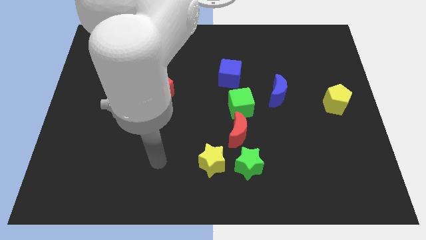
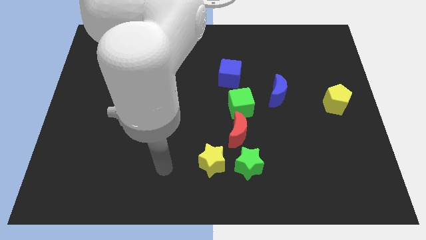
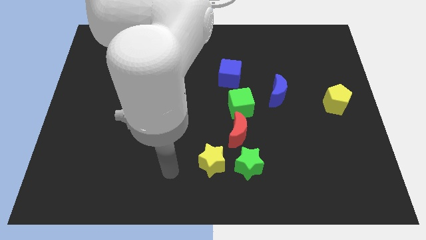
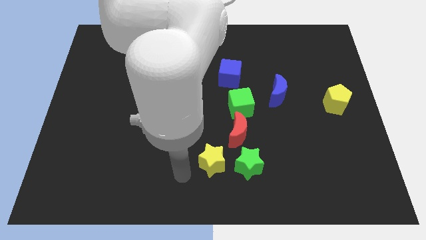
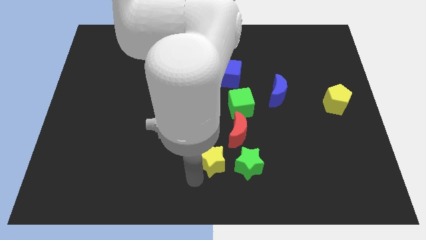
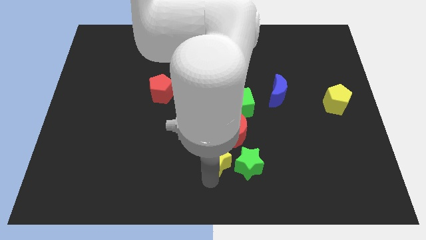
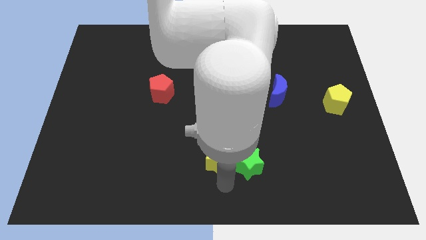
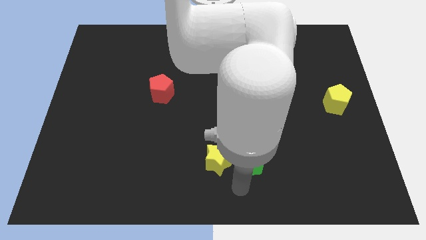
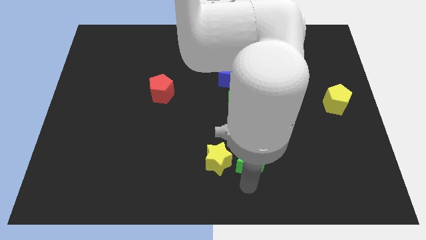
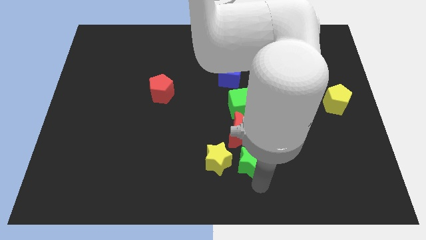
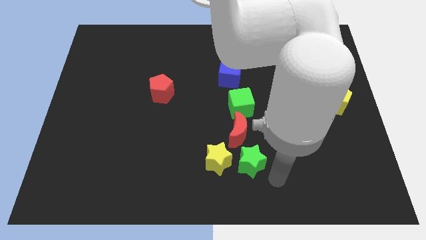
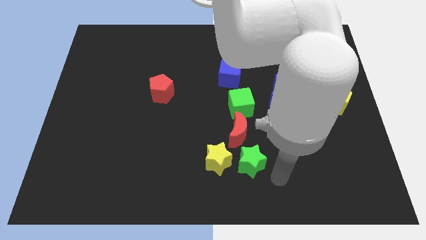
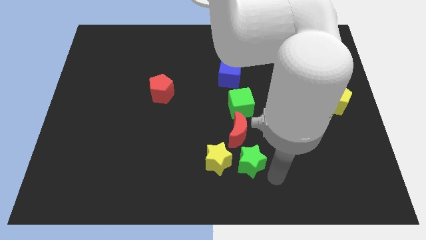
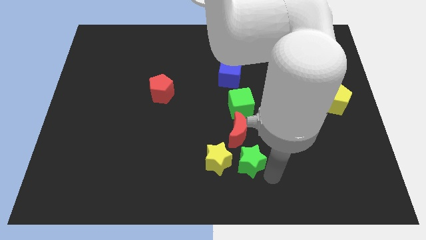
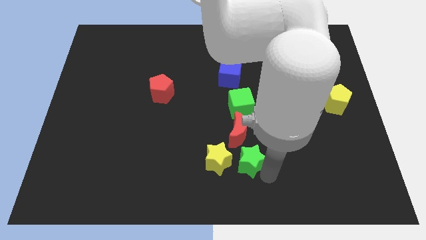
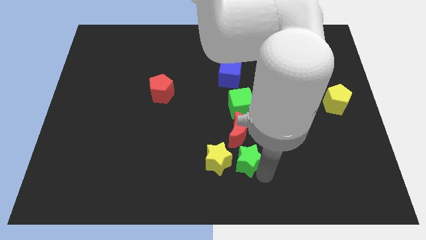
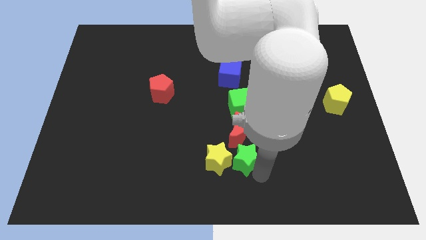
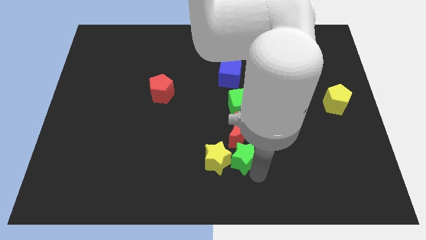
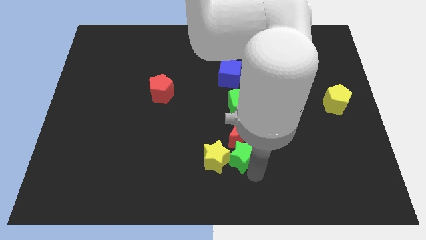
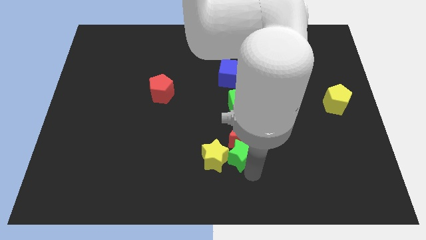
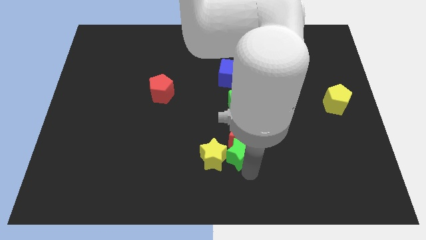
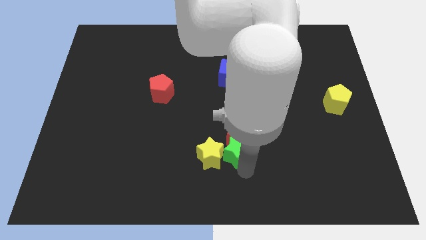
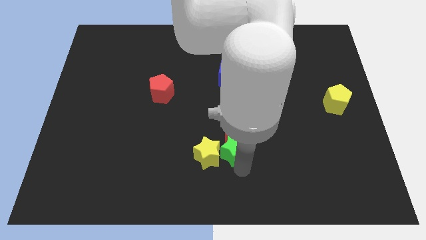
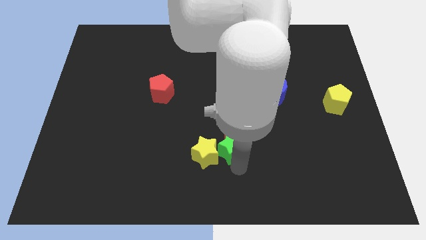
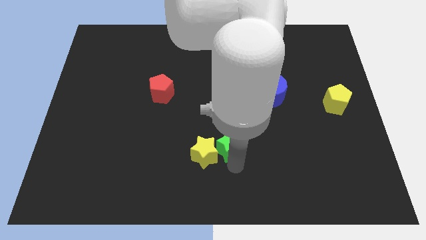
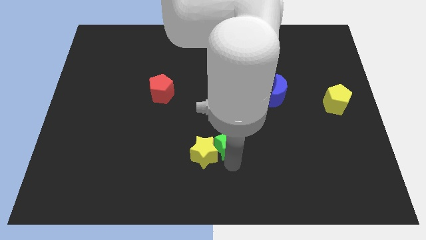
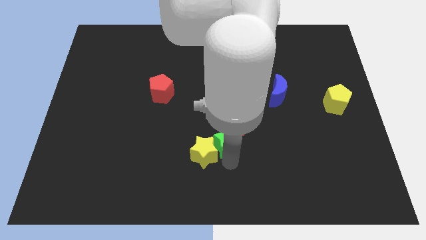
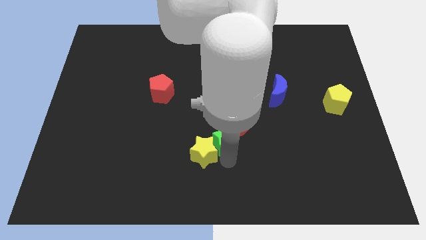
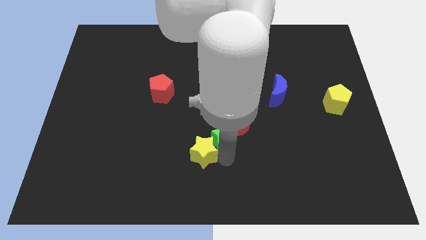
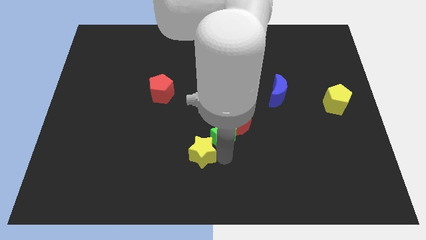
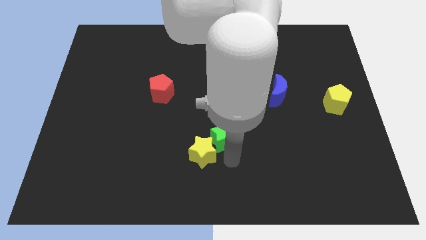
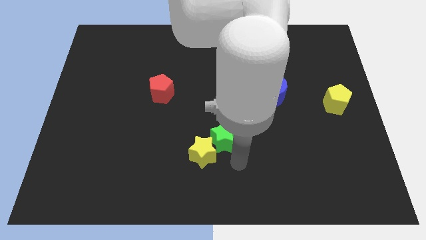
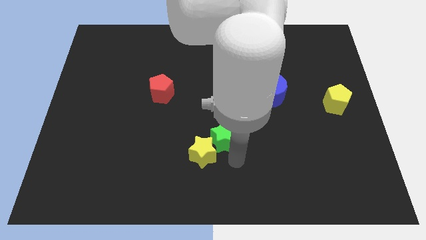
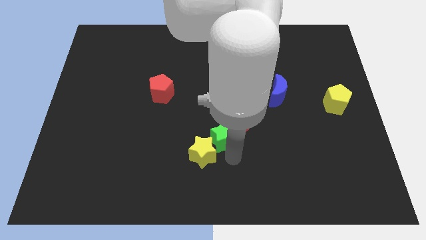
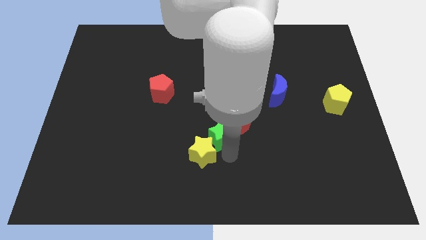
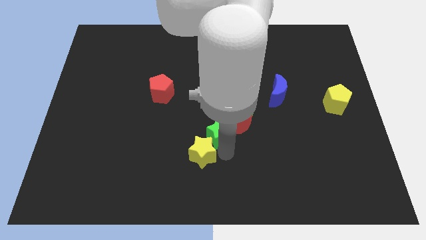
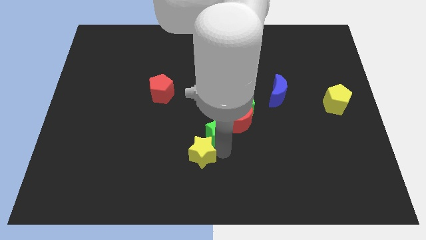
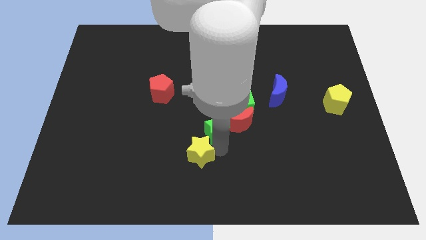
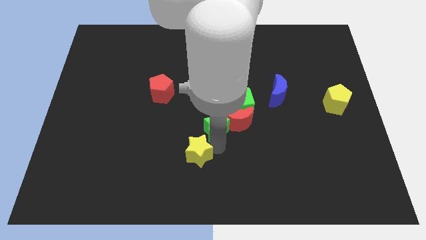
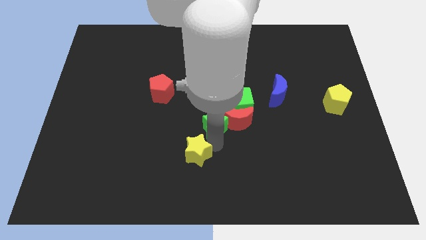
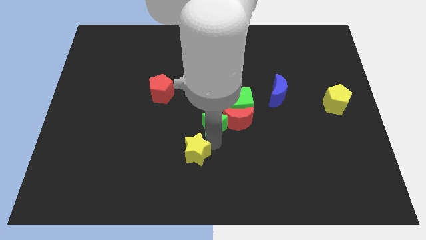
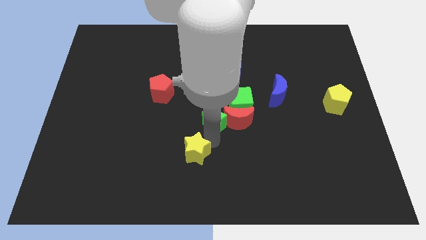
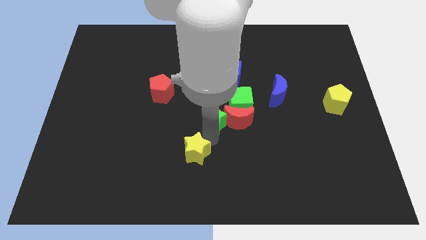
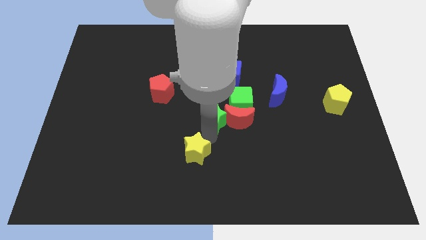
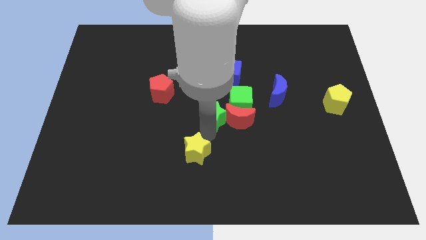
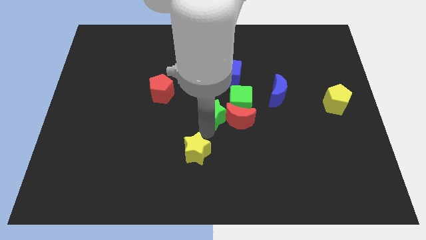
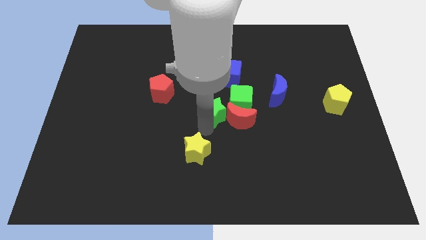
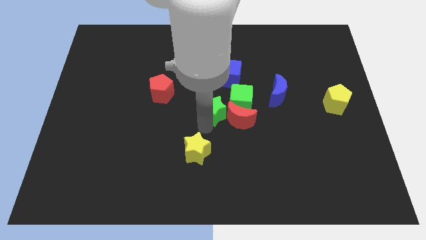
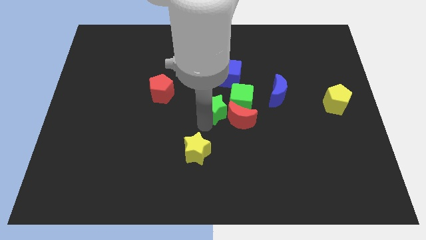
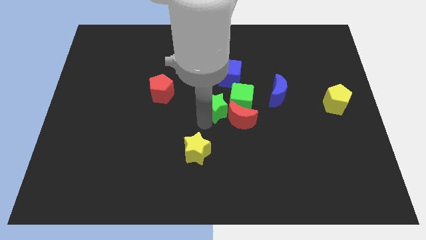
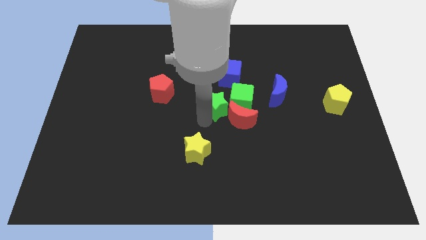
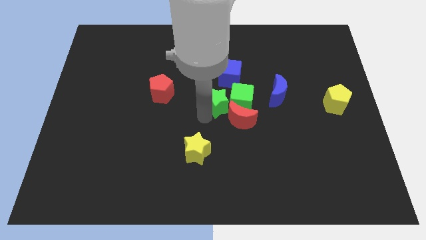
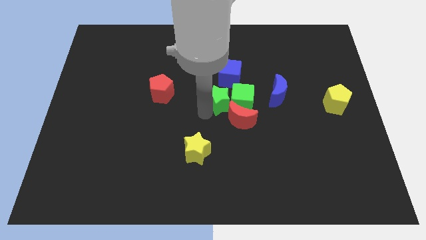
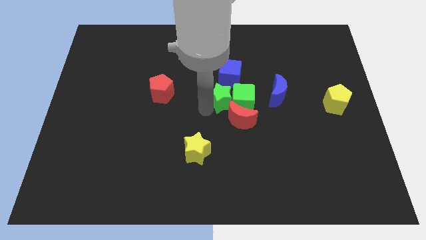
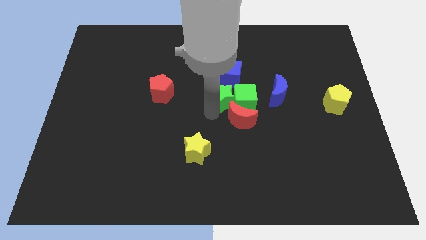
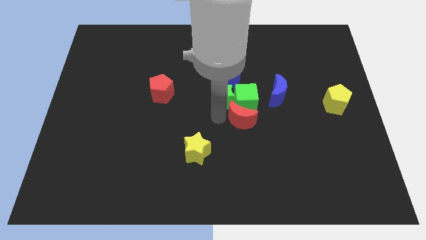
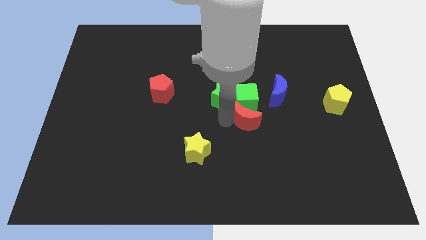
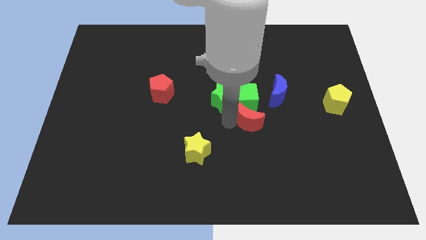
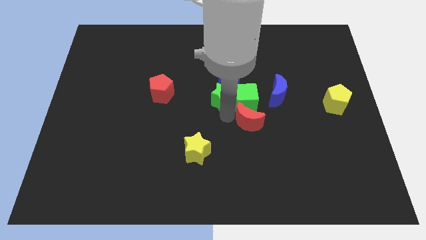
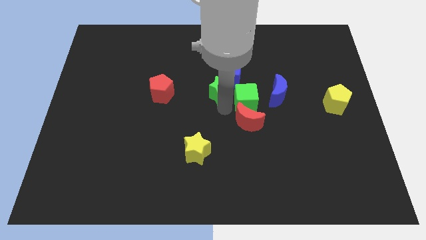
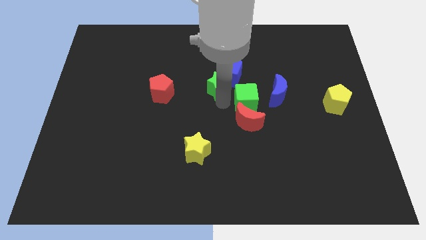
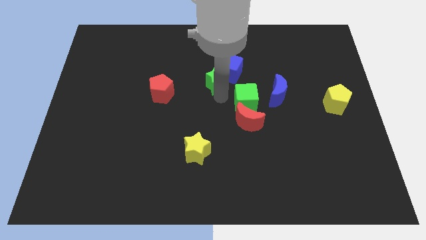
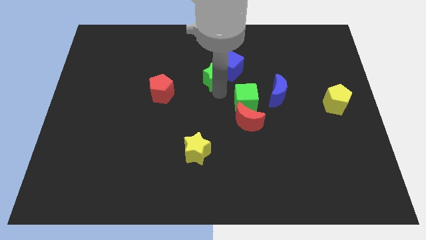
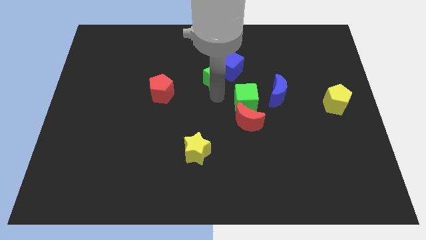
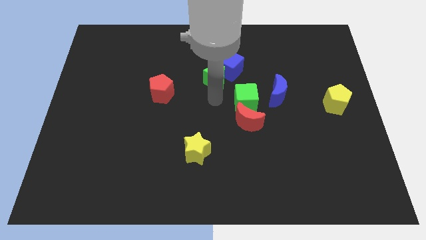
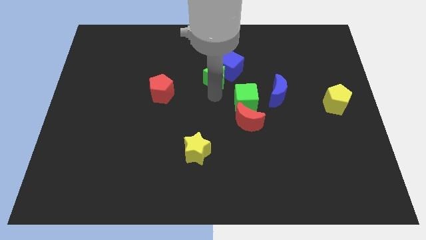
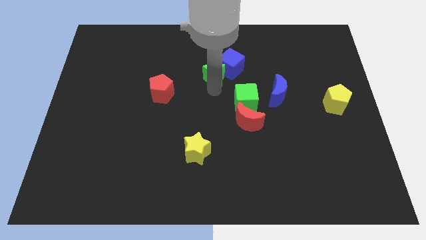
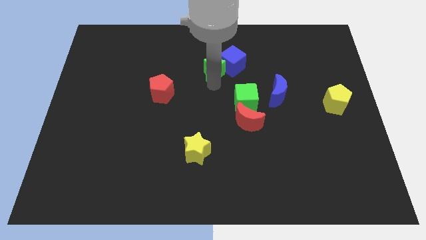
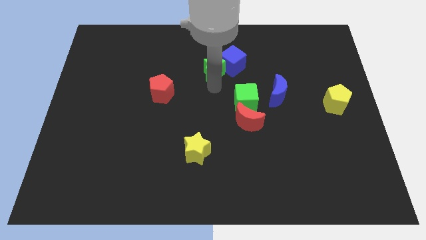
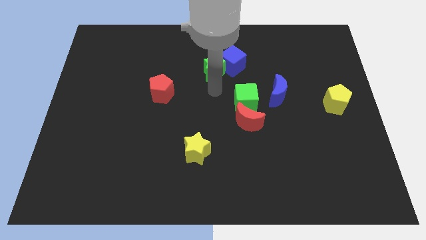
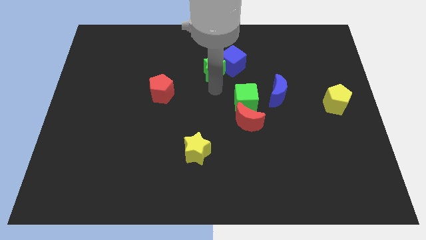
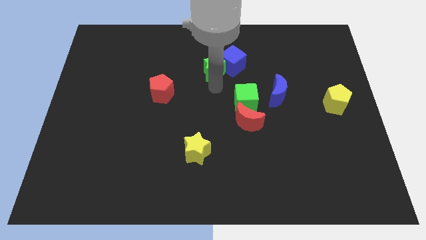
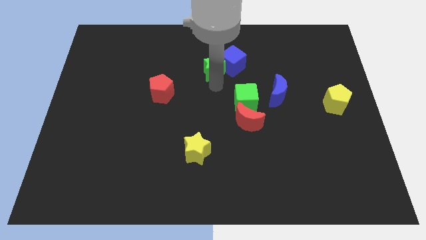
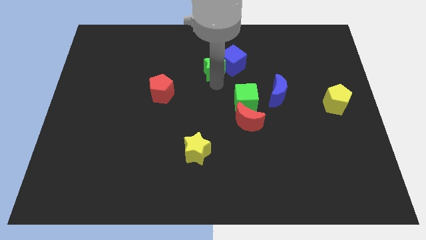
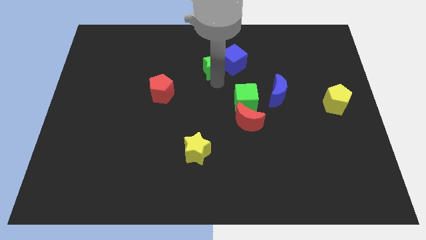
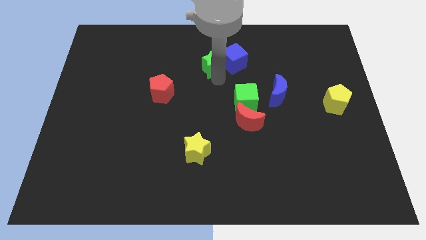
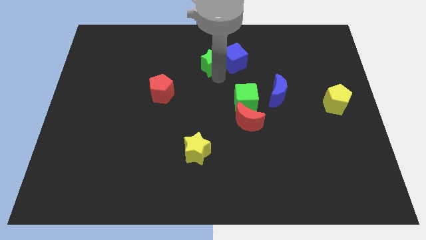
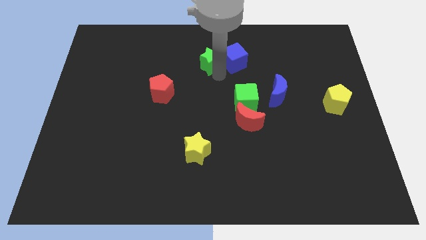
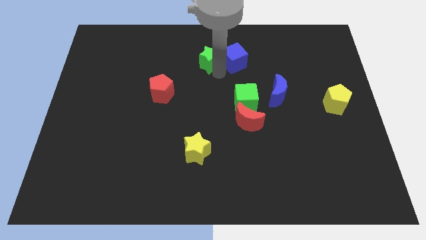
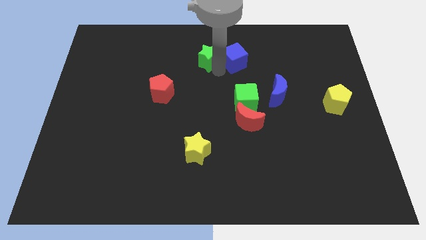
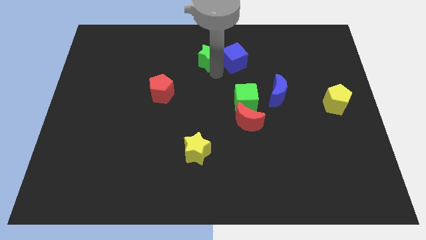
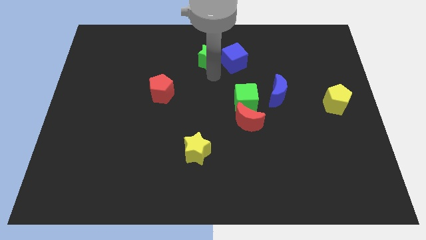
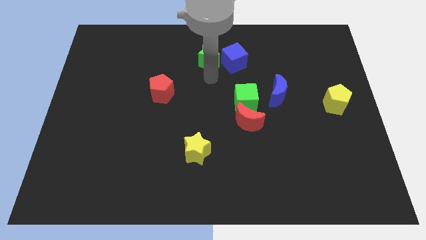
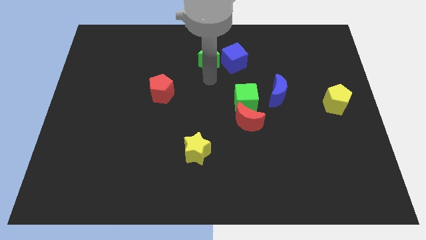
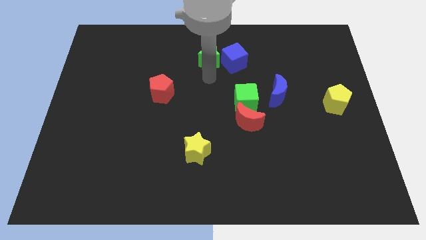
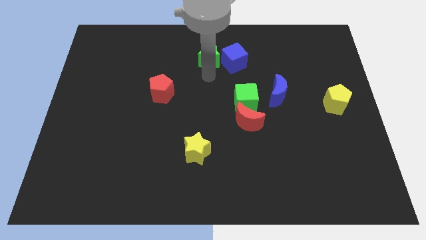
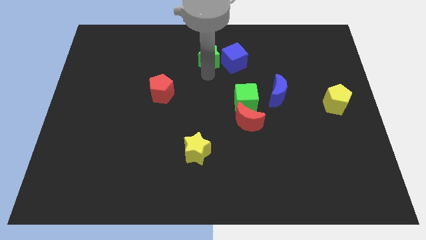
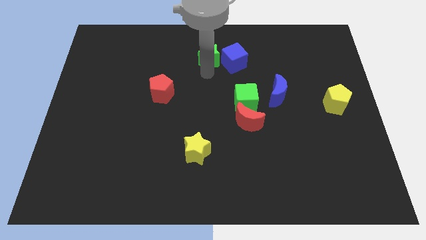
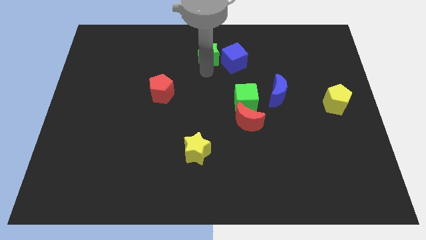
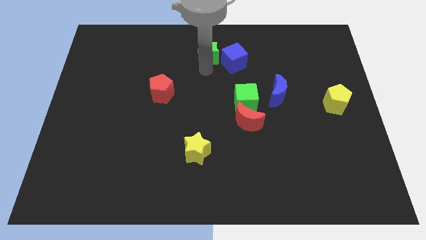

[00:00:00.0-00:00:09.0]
push the green star to the top
